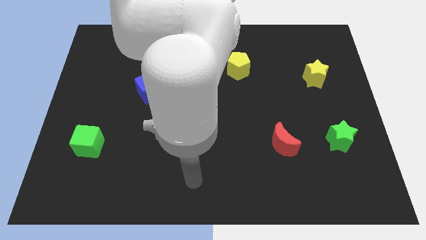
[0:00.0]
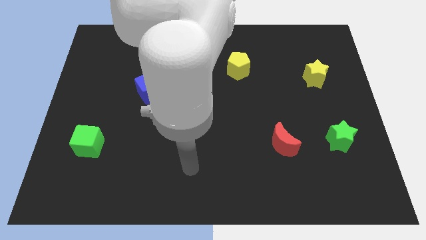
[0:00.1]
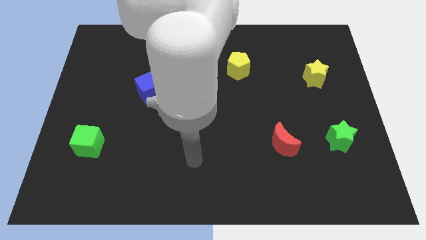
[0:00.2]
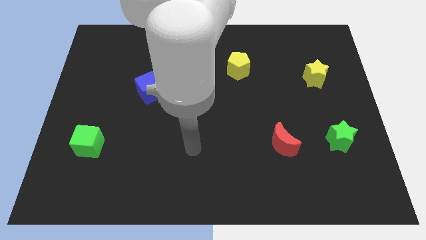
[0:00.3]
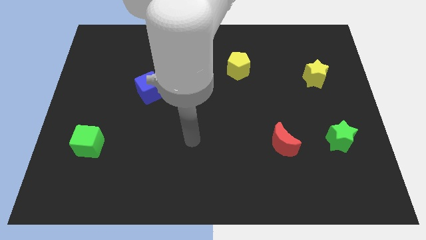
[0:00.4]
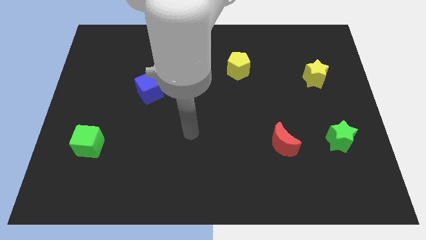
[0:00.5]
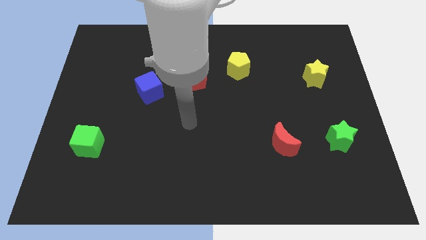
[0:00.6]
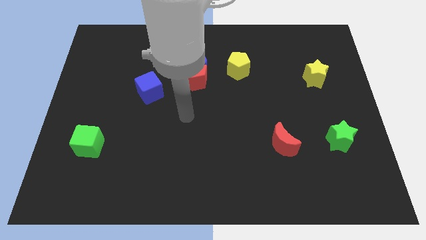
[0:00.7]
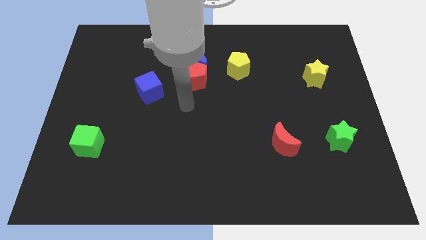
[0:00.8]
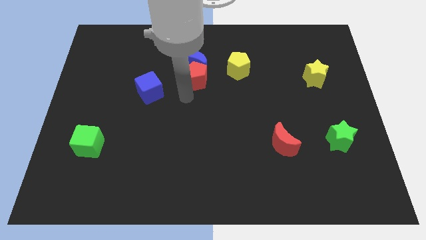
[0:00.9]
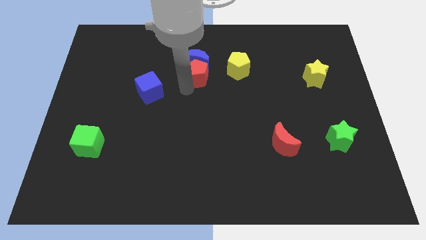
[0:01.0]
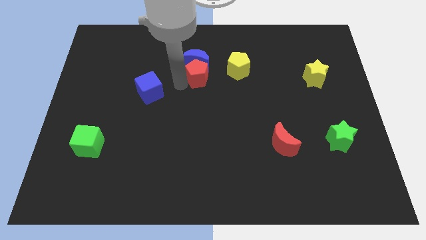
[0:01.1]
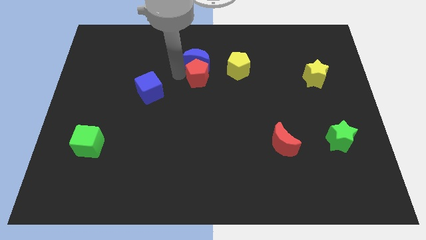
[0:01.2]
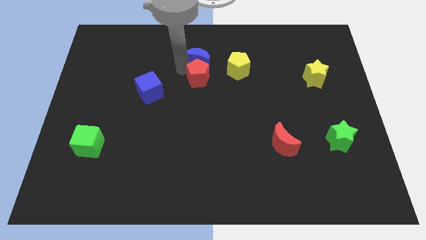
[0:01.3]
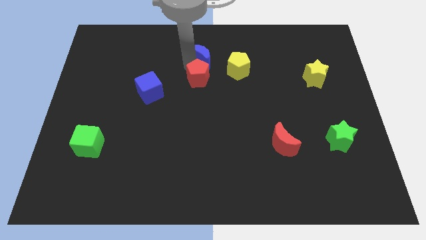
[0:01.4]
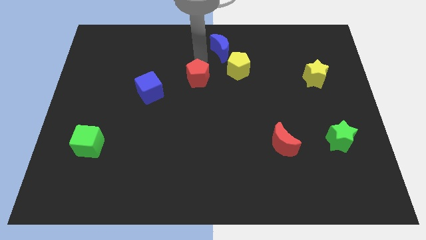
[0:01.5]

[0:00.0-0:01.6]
separate the red pentagon from the blue moon

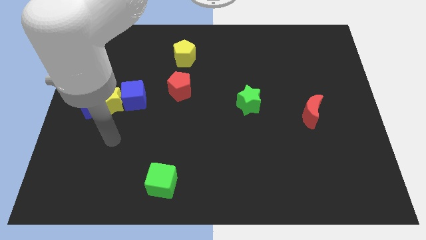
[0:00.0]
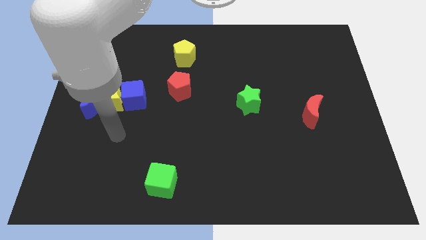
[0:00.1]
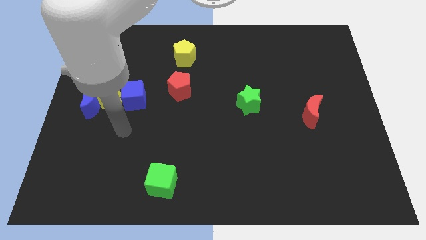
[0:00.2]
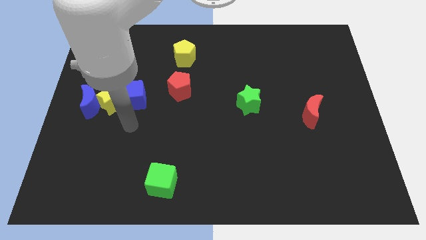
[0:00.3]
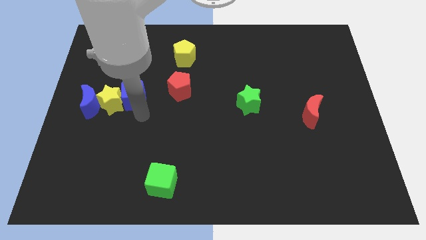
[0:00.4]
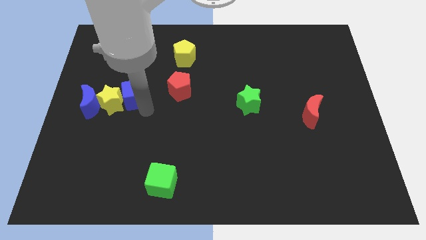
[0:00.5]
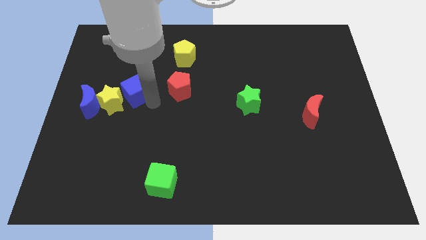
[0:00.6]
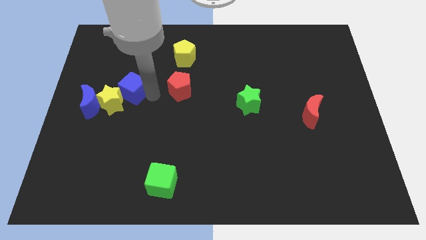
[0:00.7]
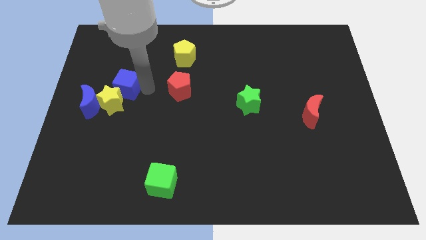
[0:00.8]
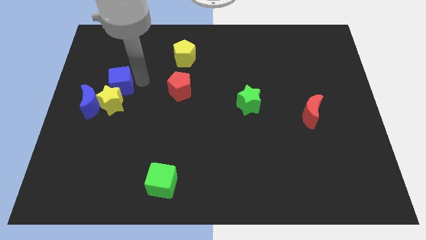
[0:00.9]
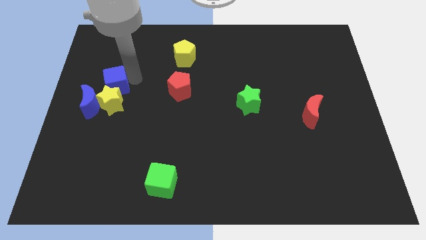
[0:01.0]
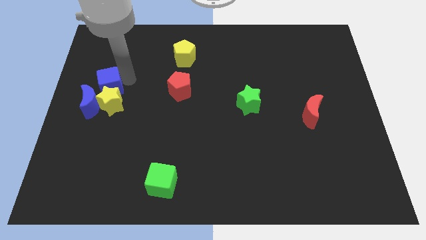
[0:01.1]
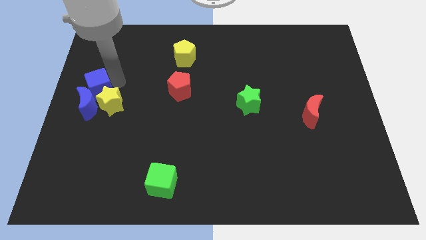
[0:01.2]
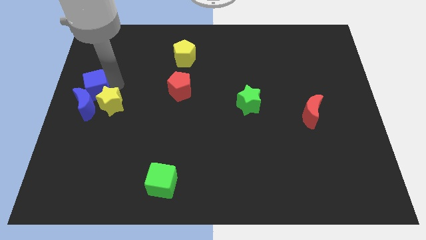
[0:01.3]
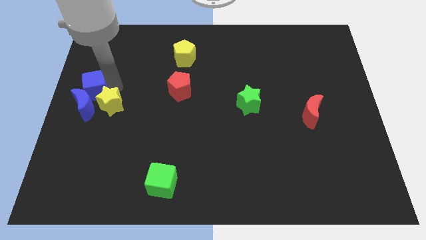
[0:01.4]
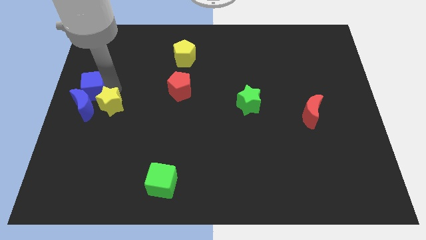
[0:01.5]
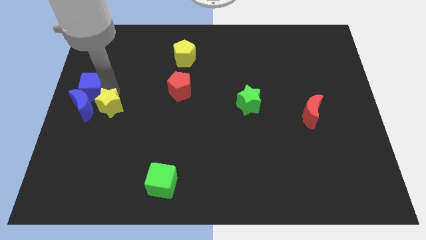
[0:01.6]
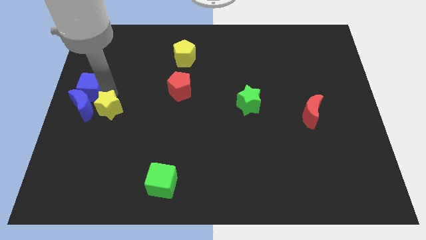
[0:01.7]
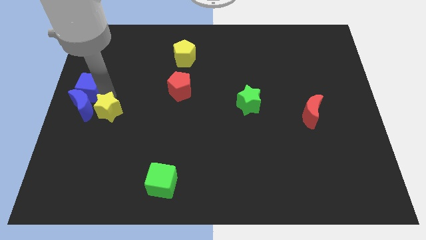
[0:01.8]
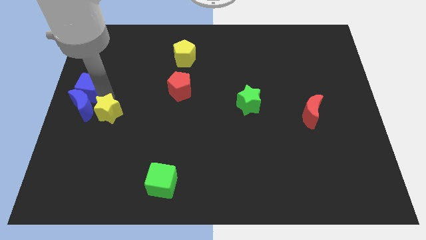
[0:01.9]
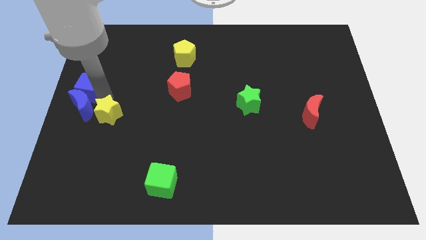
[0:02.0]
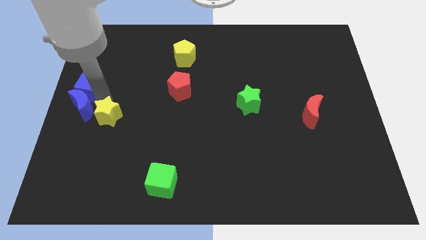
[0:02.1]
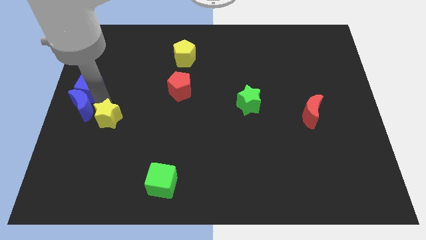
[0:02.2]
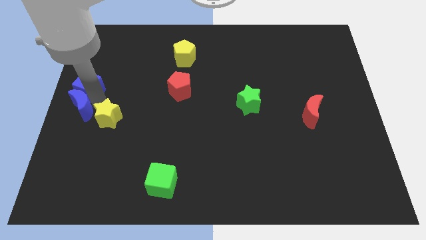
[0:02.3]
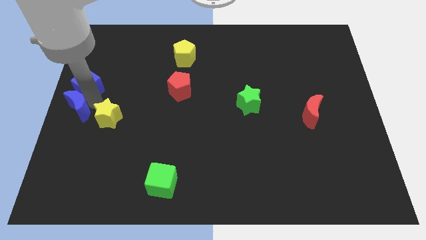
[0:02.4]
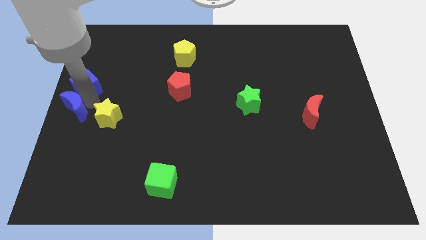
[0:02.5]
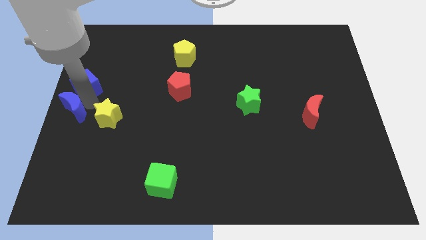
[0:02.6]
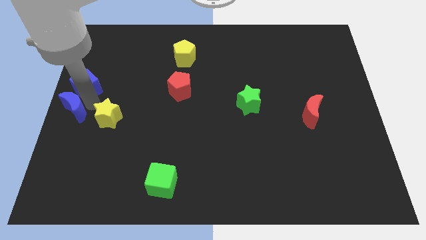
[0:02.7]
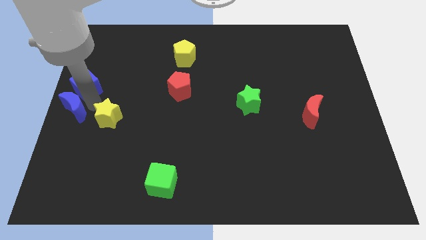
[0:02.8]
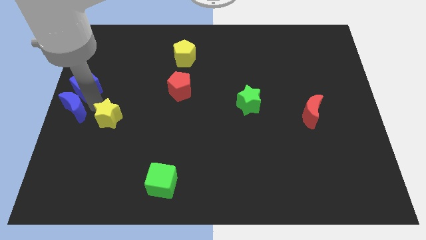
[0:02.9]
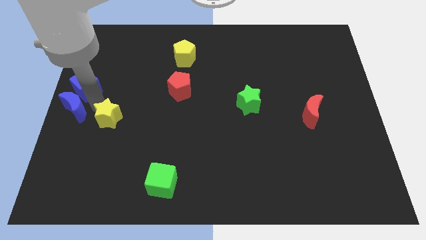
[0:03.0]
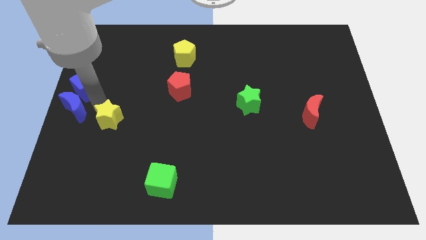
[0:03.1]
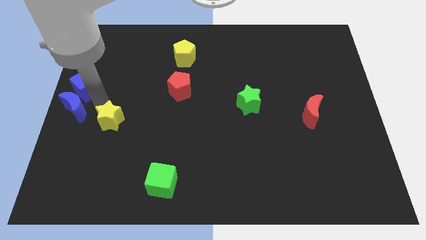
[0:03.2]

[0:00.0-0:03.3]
separate the yellow star from the blue moon and blue cube

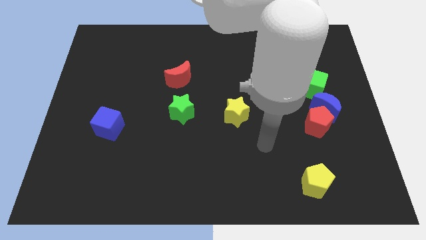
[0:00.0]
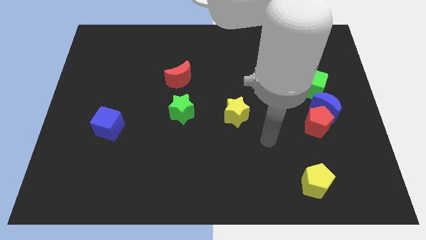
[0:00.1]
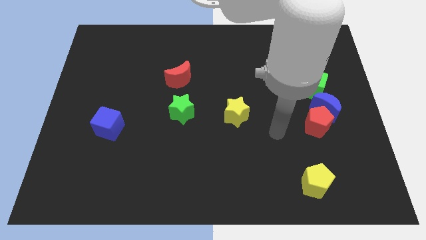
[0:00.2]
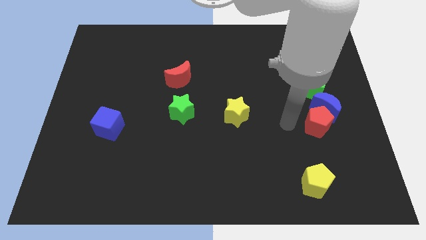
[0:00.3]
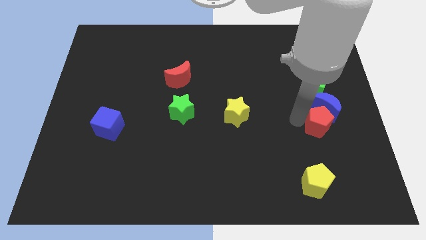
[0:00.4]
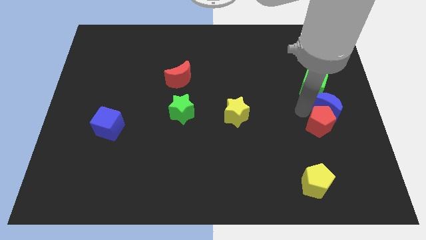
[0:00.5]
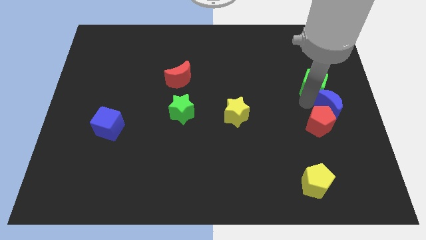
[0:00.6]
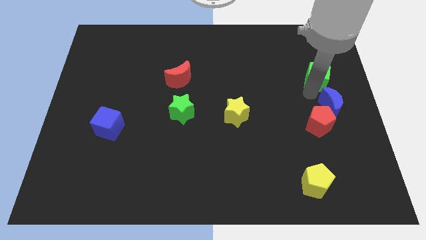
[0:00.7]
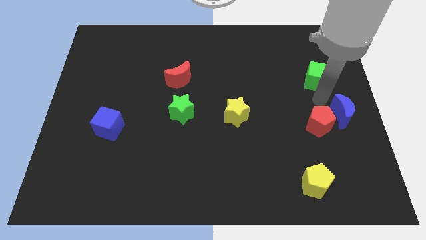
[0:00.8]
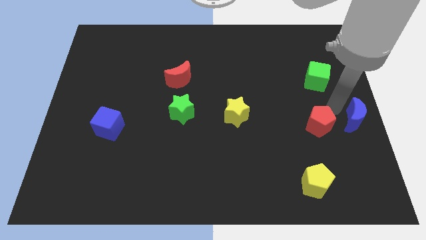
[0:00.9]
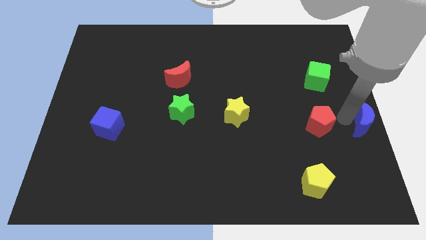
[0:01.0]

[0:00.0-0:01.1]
move the red pentagon away from the blue moon

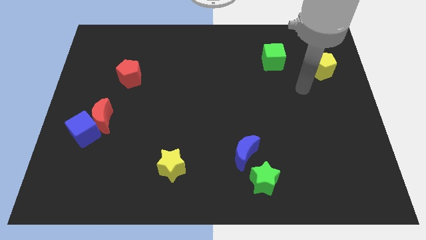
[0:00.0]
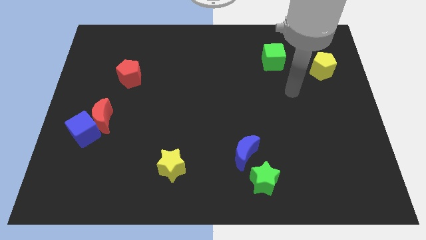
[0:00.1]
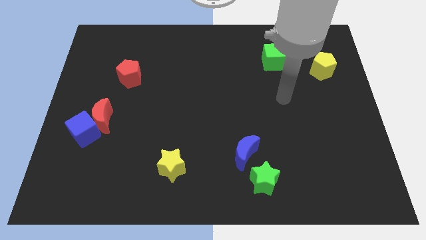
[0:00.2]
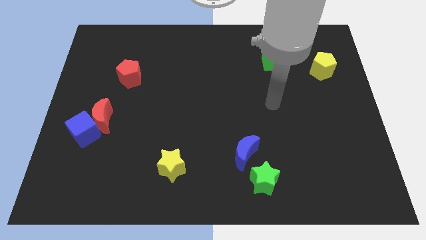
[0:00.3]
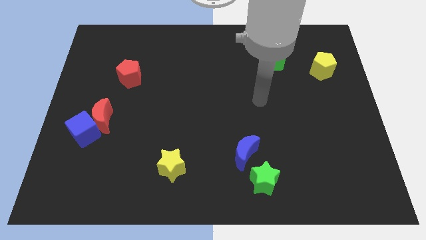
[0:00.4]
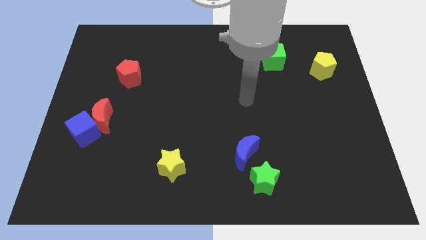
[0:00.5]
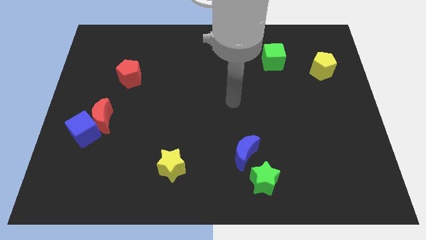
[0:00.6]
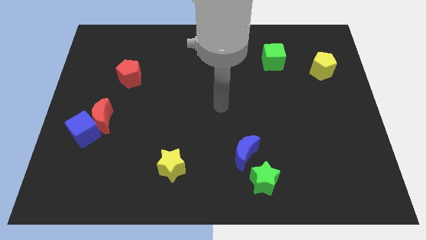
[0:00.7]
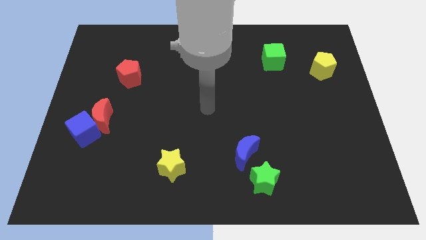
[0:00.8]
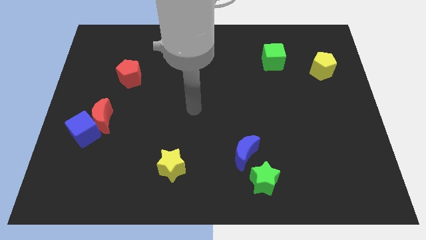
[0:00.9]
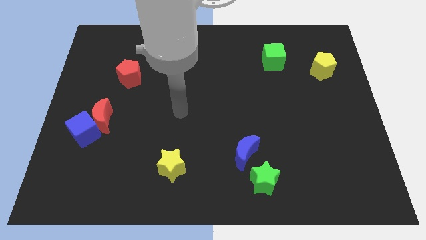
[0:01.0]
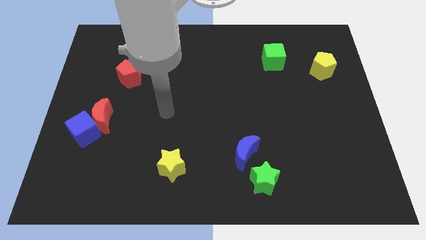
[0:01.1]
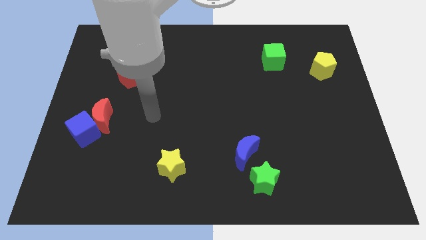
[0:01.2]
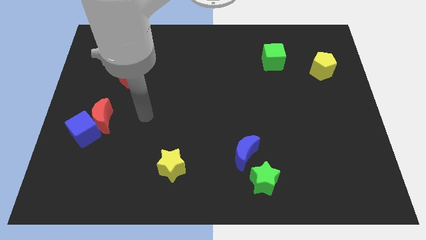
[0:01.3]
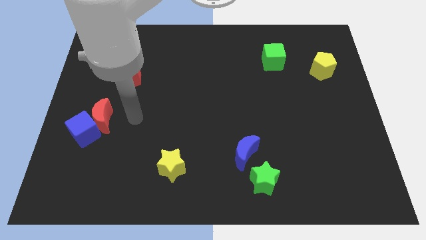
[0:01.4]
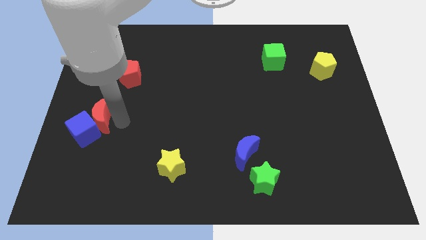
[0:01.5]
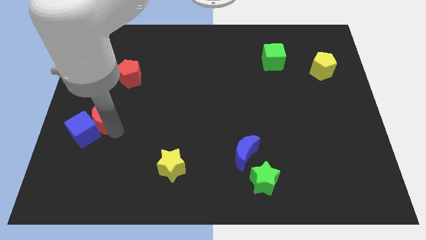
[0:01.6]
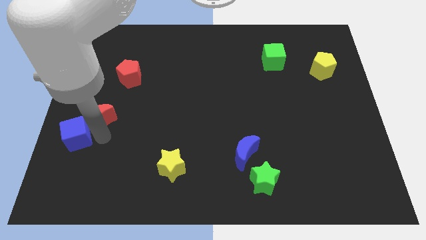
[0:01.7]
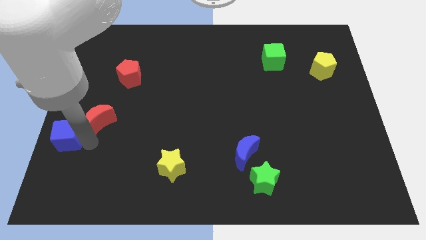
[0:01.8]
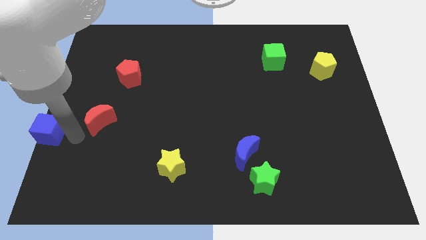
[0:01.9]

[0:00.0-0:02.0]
pull the red moon apart from the blue cube

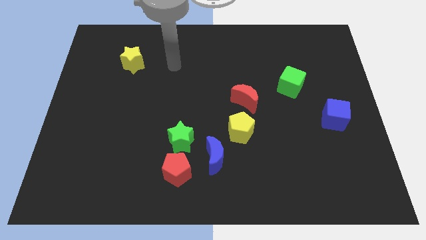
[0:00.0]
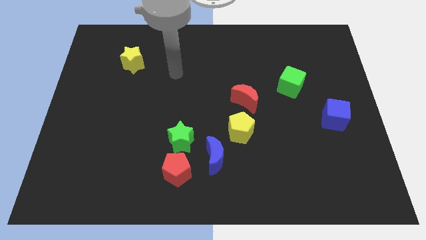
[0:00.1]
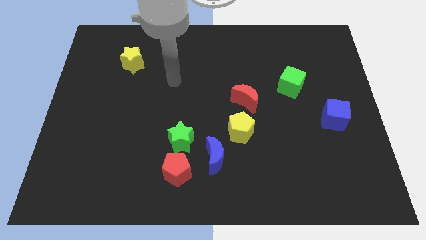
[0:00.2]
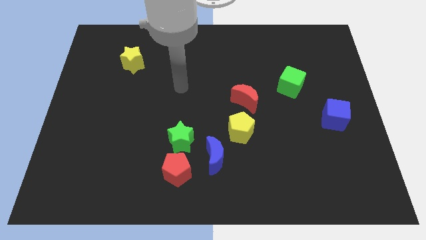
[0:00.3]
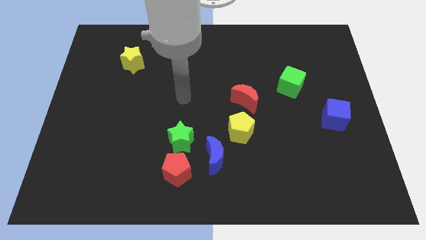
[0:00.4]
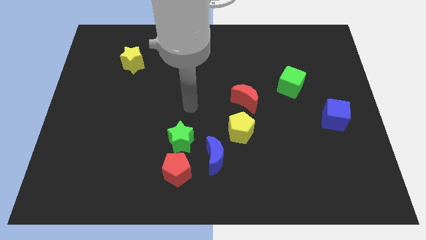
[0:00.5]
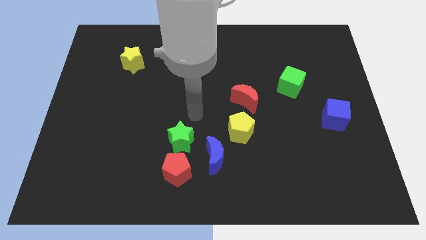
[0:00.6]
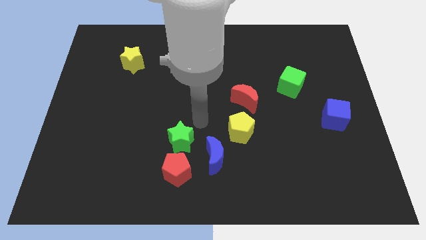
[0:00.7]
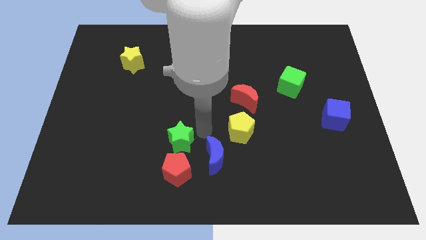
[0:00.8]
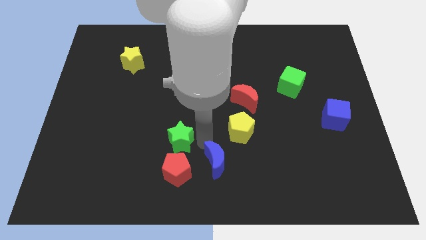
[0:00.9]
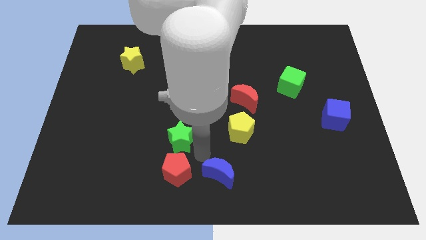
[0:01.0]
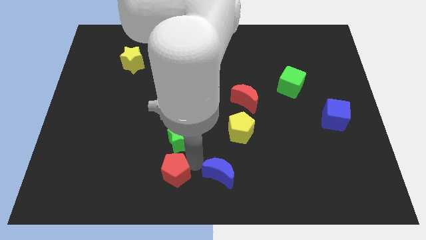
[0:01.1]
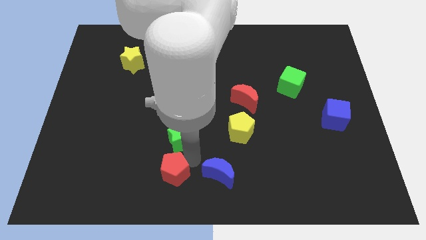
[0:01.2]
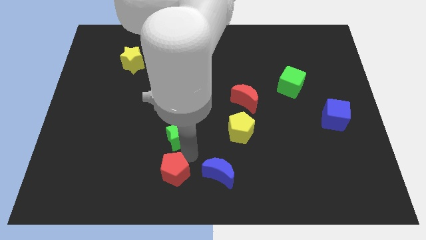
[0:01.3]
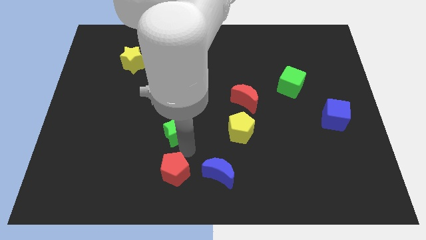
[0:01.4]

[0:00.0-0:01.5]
move the green star away from the red pentagon and blue moon
